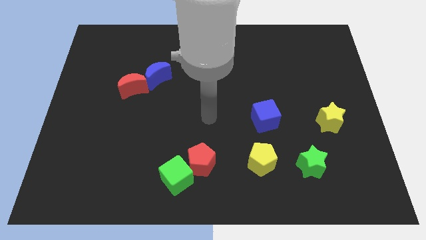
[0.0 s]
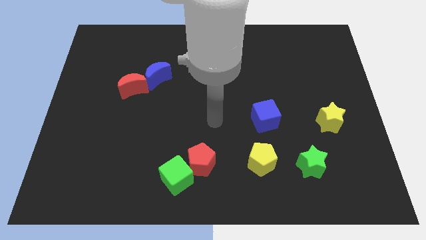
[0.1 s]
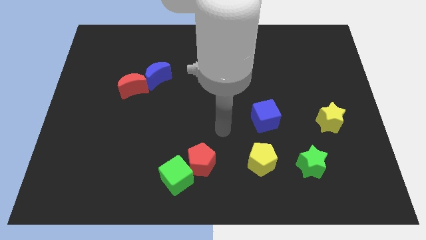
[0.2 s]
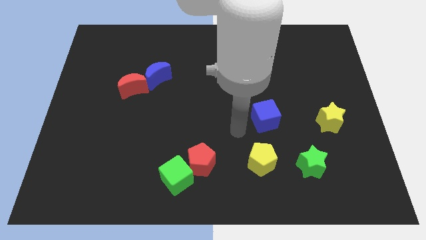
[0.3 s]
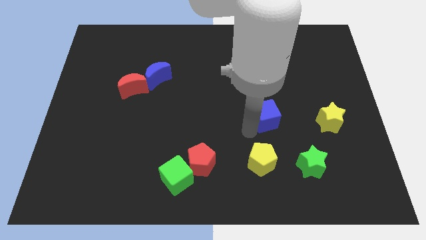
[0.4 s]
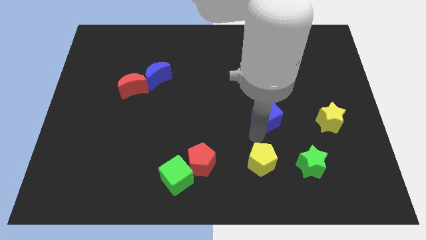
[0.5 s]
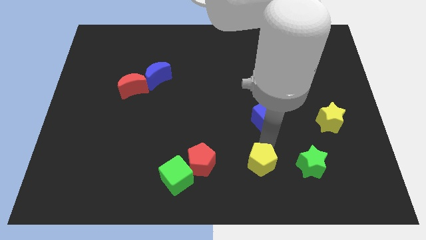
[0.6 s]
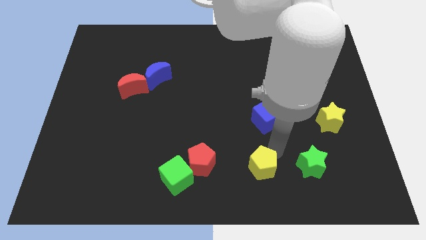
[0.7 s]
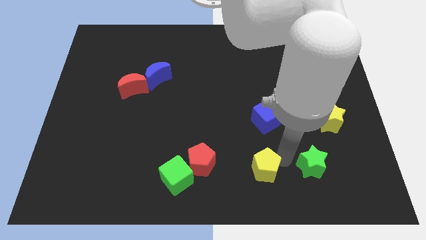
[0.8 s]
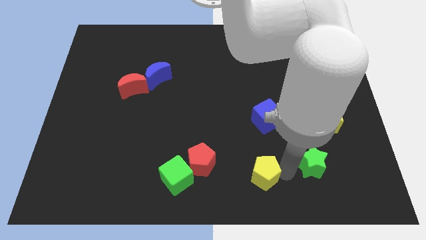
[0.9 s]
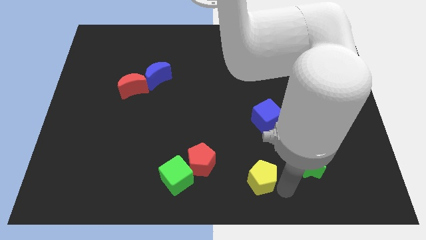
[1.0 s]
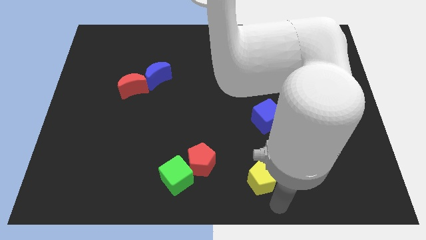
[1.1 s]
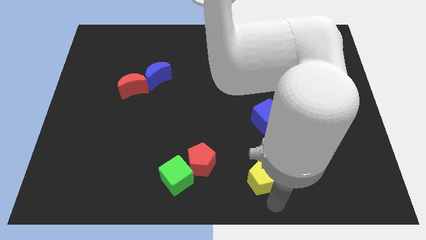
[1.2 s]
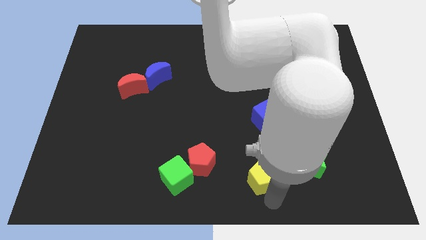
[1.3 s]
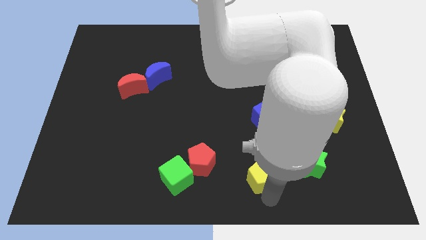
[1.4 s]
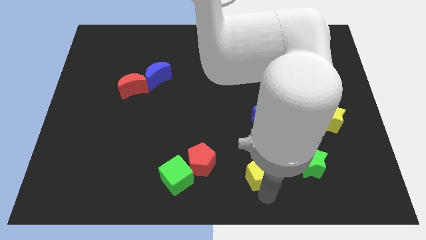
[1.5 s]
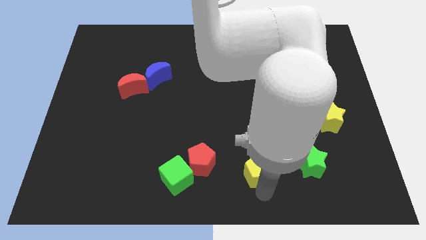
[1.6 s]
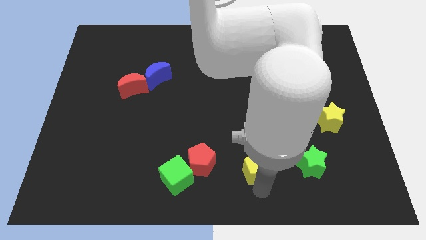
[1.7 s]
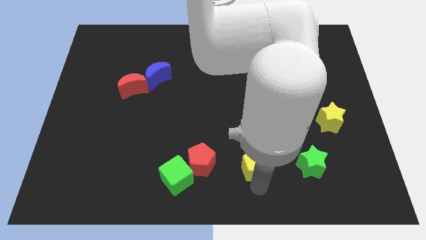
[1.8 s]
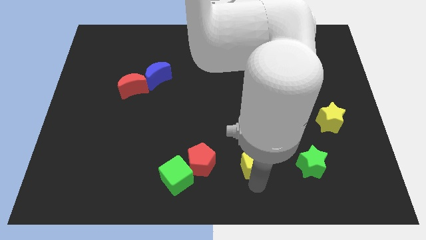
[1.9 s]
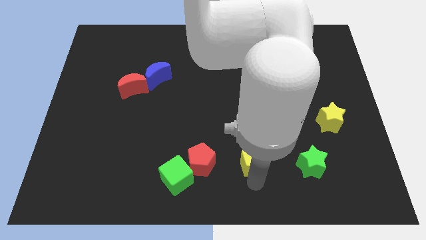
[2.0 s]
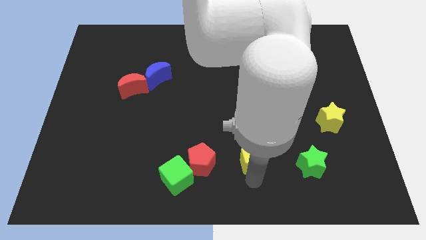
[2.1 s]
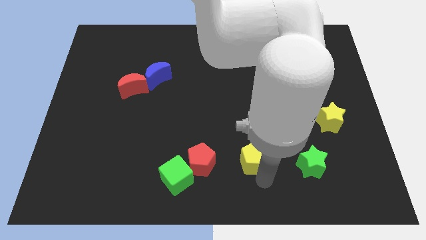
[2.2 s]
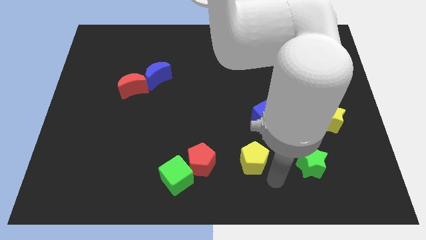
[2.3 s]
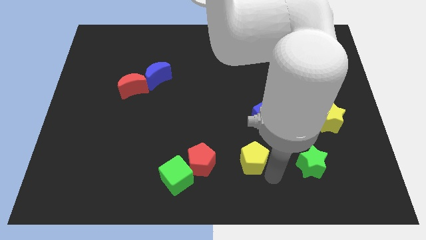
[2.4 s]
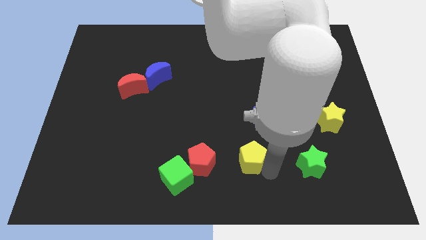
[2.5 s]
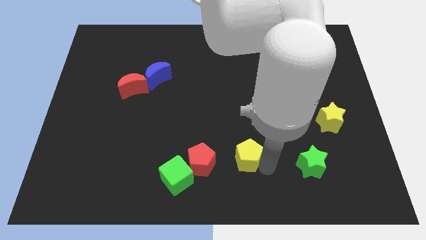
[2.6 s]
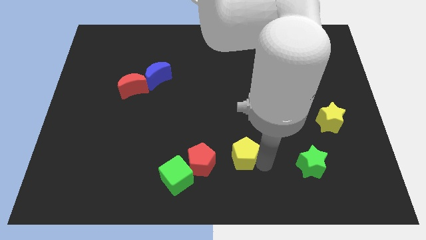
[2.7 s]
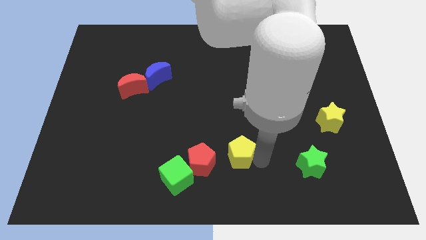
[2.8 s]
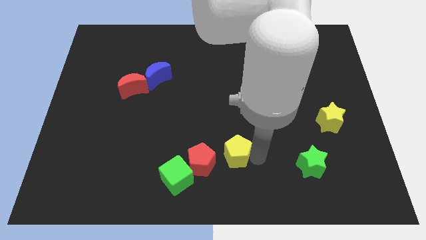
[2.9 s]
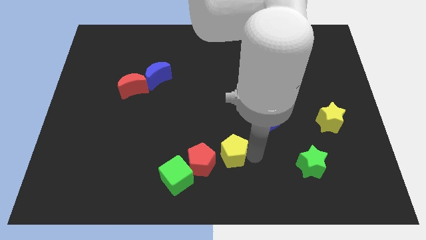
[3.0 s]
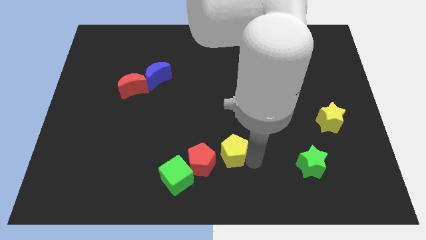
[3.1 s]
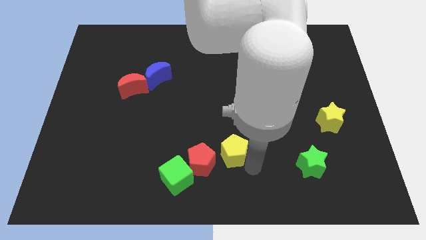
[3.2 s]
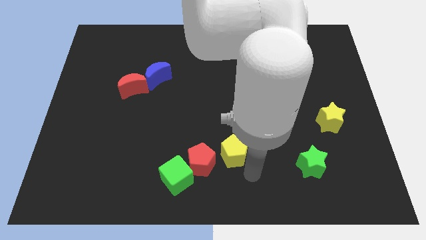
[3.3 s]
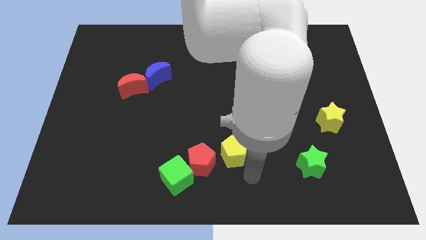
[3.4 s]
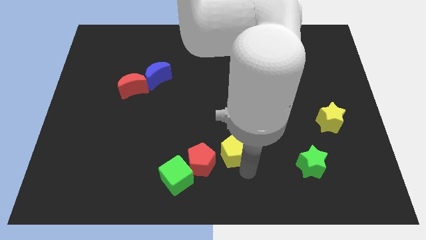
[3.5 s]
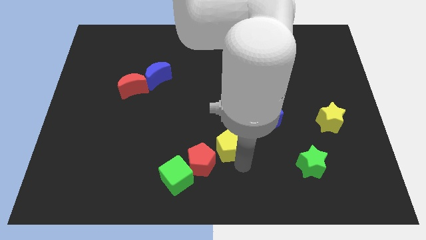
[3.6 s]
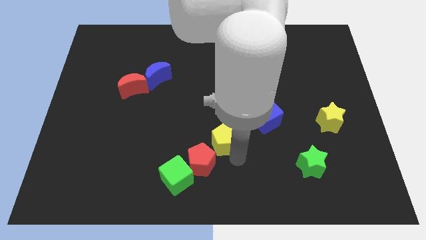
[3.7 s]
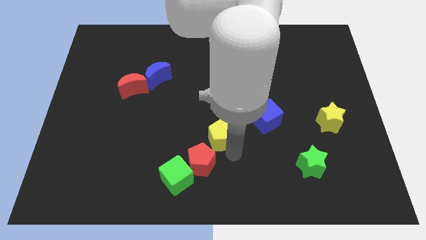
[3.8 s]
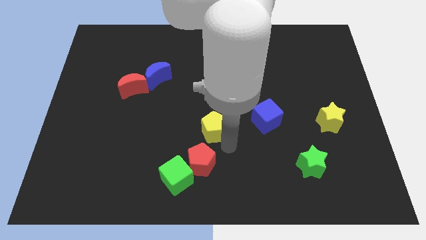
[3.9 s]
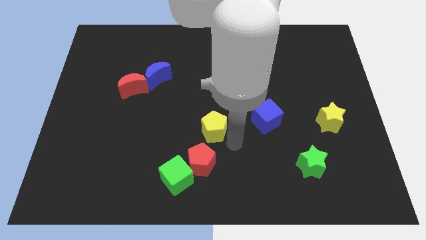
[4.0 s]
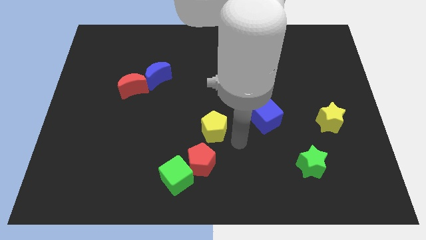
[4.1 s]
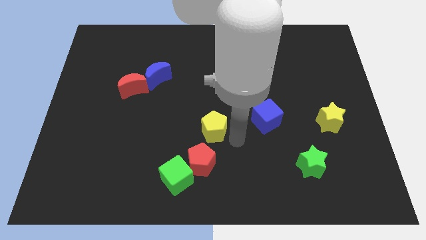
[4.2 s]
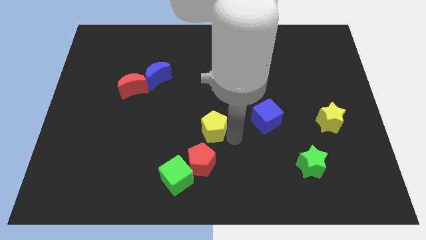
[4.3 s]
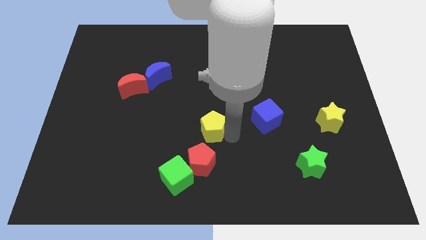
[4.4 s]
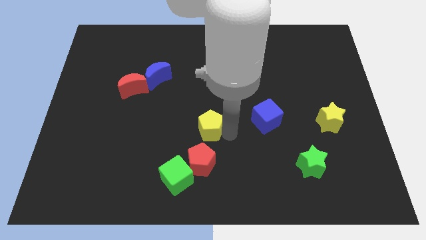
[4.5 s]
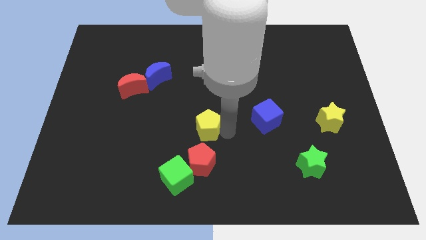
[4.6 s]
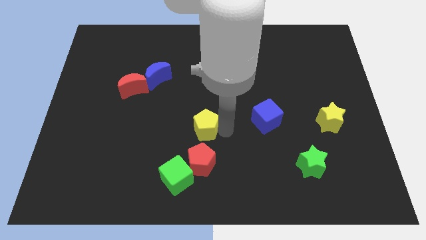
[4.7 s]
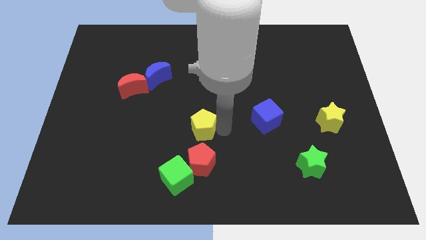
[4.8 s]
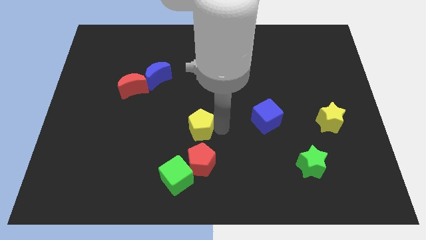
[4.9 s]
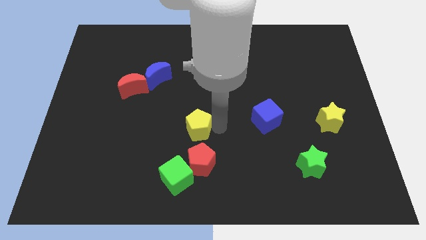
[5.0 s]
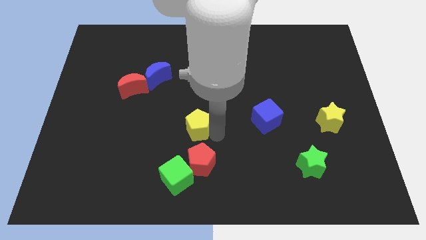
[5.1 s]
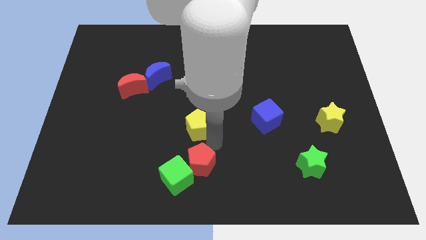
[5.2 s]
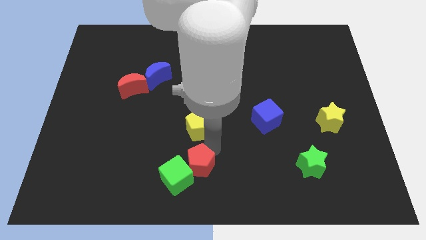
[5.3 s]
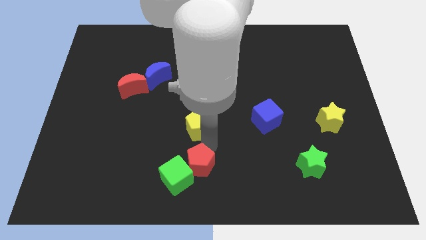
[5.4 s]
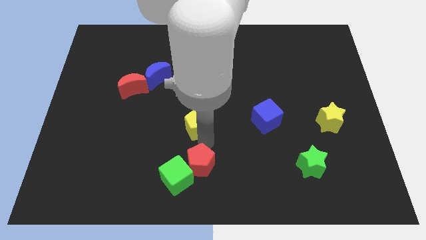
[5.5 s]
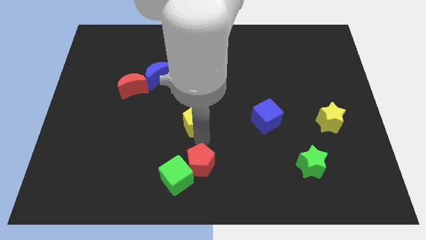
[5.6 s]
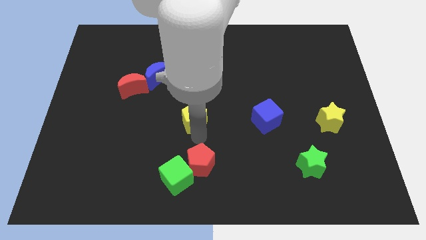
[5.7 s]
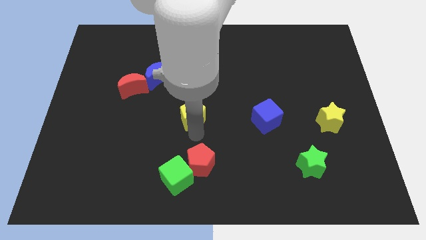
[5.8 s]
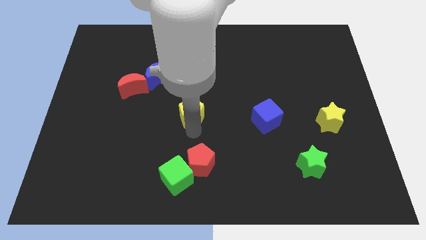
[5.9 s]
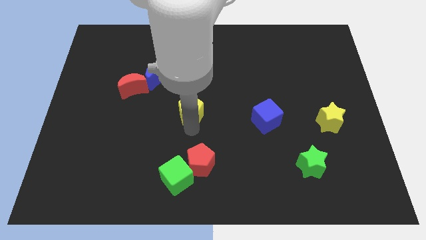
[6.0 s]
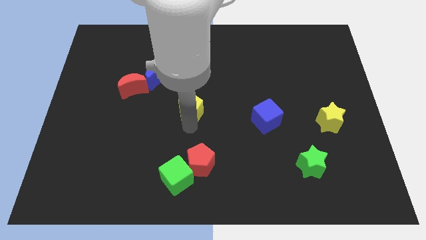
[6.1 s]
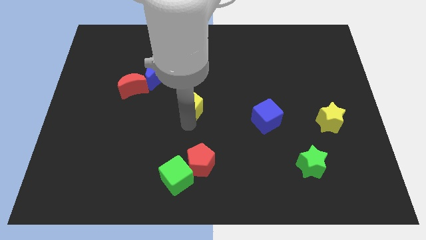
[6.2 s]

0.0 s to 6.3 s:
slide the yellow pentagon to the bottom right of the blue moon
